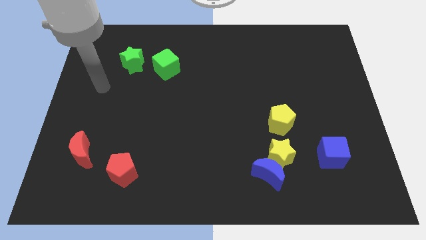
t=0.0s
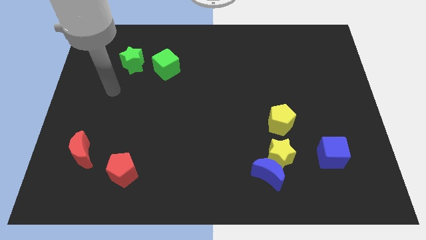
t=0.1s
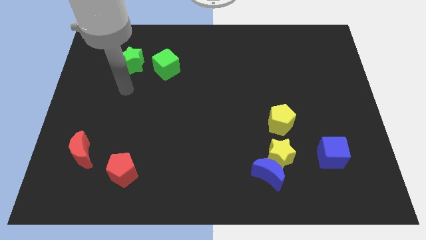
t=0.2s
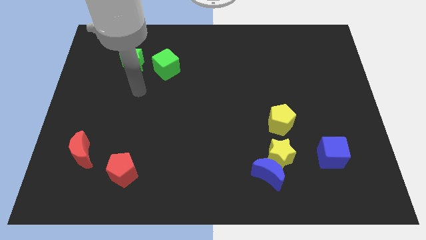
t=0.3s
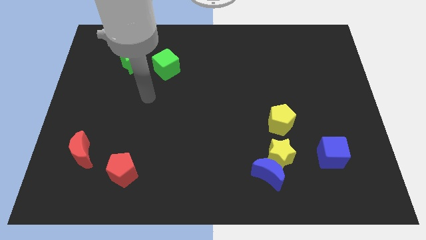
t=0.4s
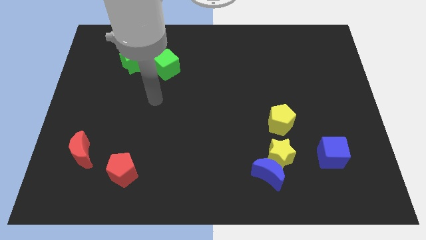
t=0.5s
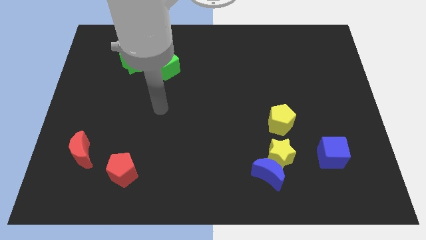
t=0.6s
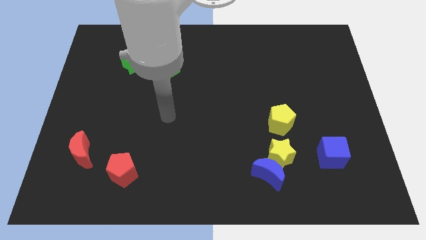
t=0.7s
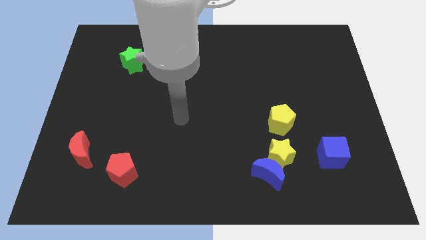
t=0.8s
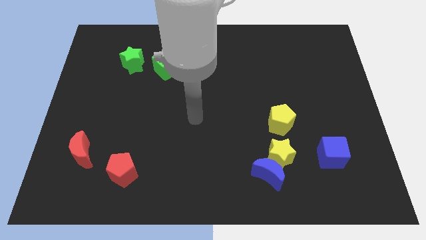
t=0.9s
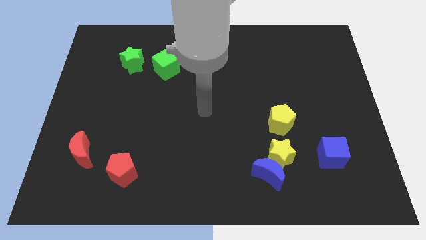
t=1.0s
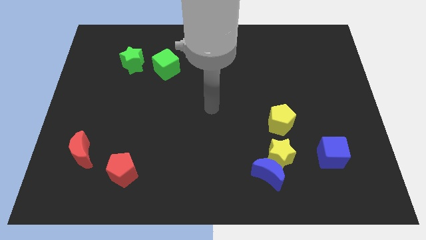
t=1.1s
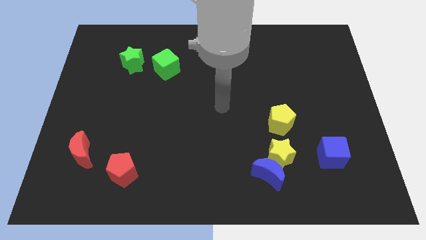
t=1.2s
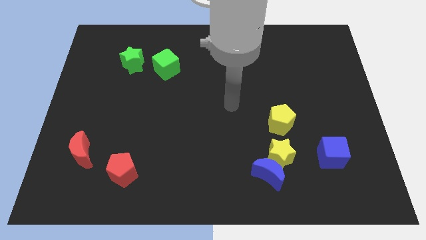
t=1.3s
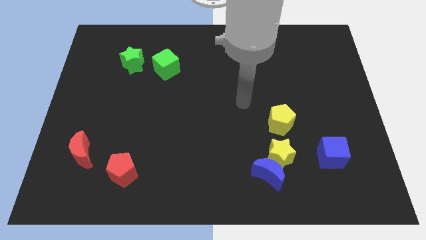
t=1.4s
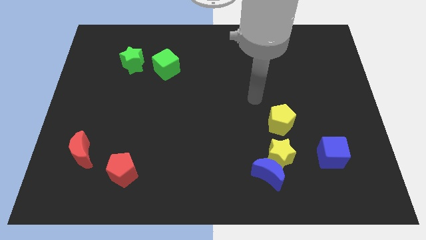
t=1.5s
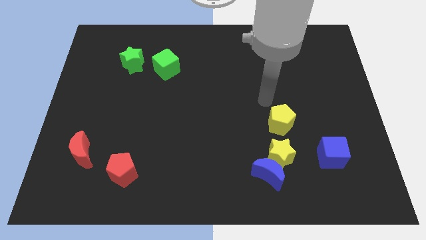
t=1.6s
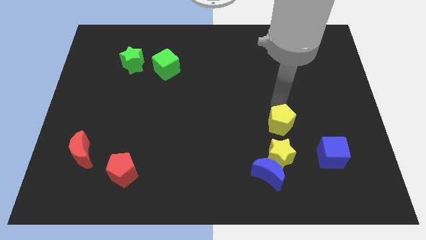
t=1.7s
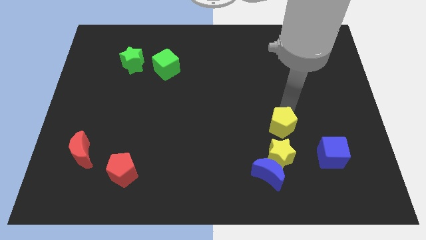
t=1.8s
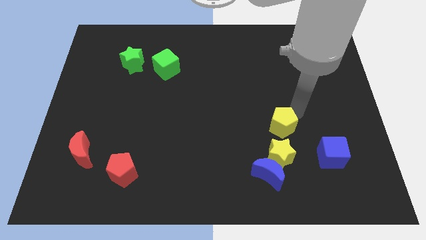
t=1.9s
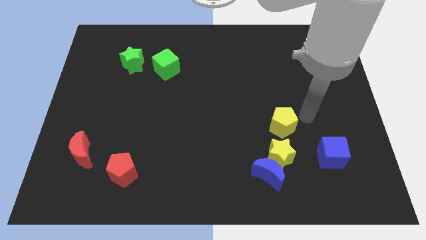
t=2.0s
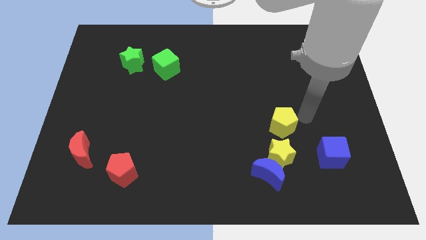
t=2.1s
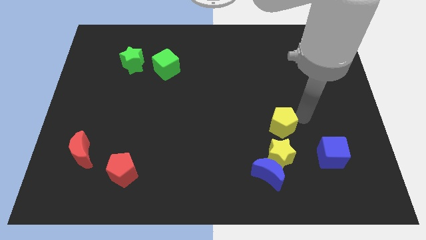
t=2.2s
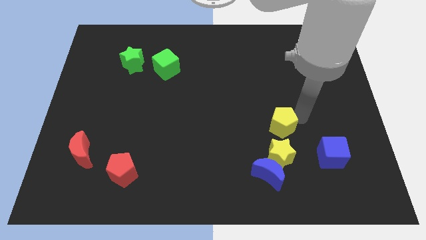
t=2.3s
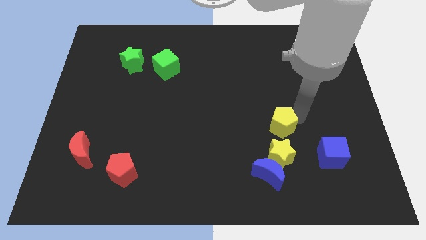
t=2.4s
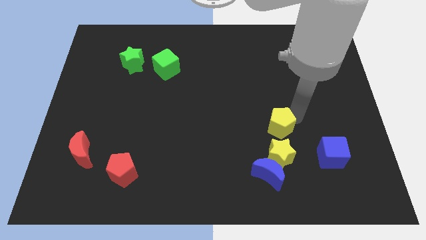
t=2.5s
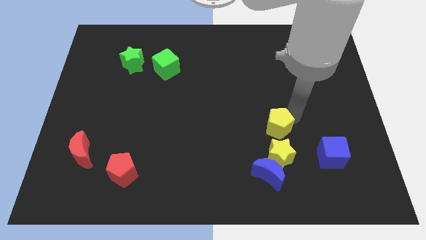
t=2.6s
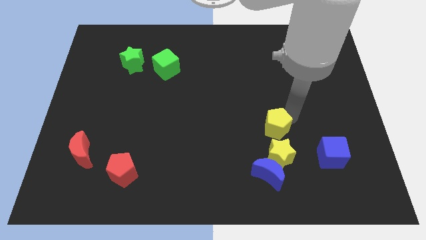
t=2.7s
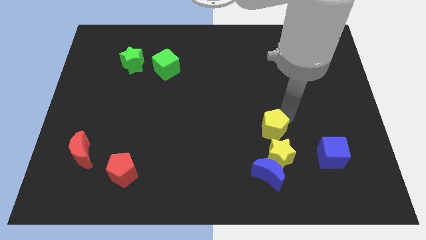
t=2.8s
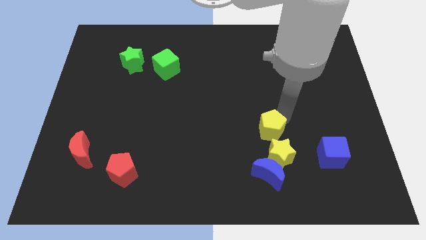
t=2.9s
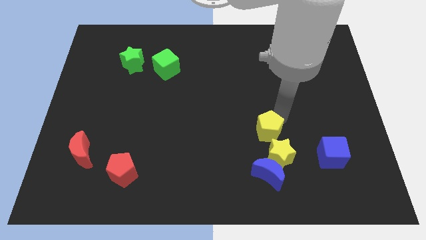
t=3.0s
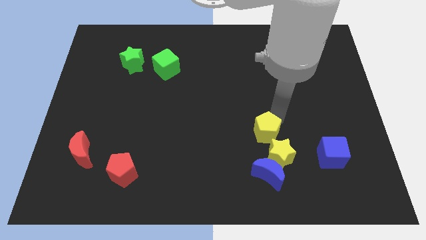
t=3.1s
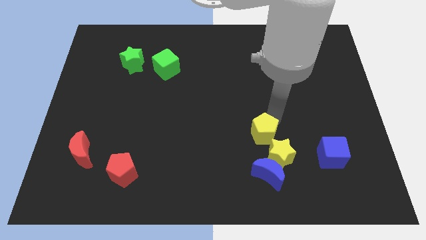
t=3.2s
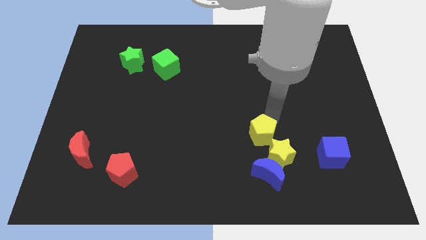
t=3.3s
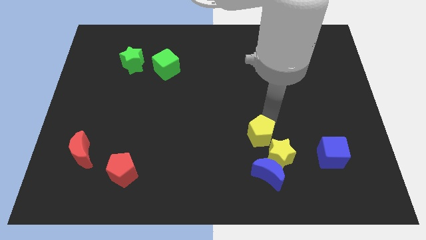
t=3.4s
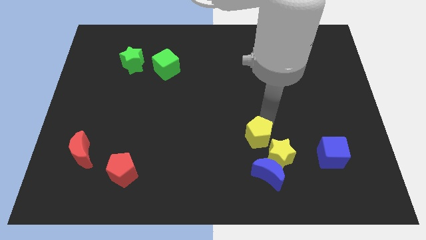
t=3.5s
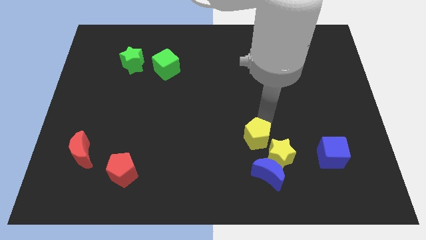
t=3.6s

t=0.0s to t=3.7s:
move the yellow pentagon down and to the left a bit

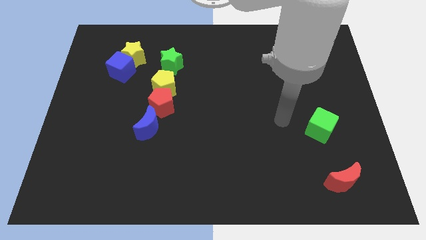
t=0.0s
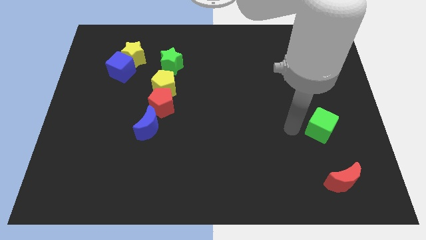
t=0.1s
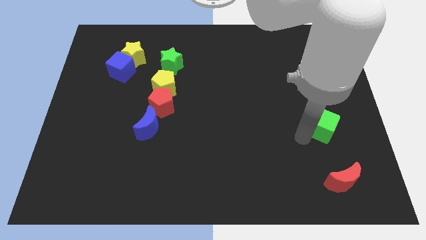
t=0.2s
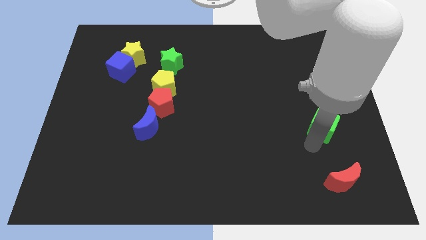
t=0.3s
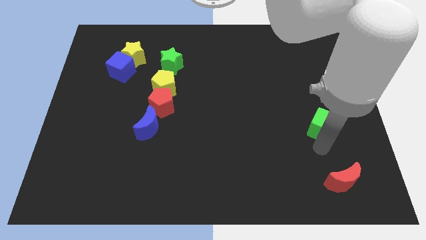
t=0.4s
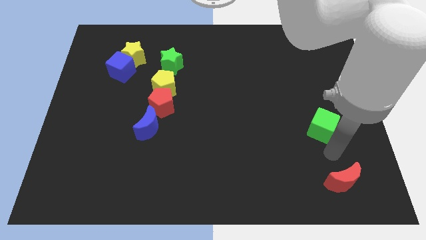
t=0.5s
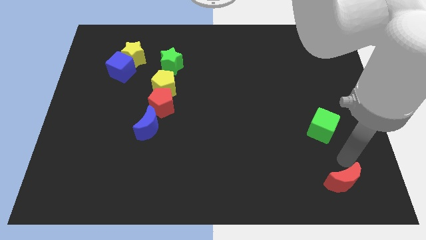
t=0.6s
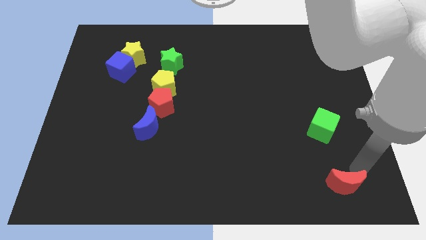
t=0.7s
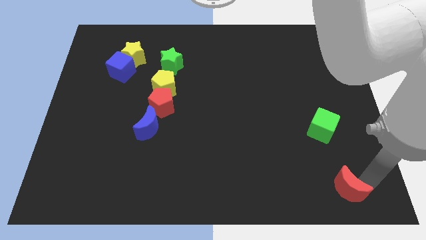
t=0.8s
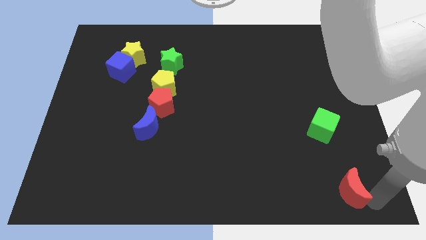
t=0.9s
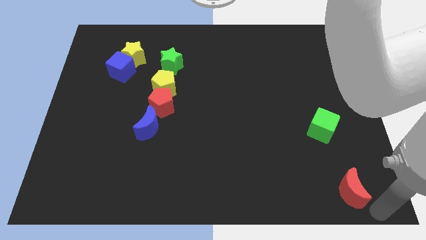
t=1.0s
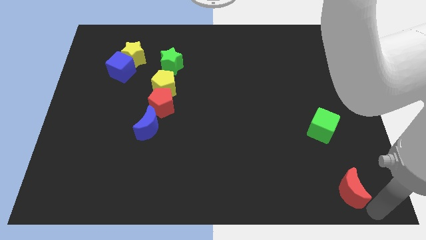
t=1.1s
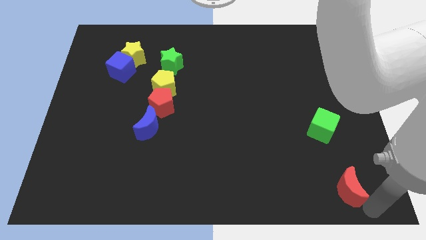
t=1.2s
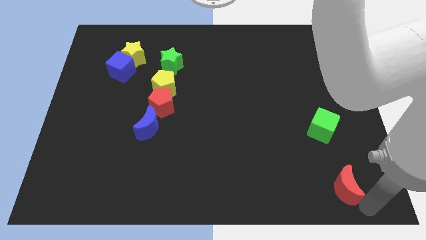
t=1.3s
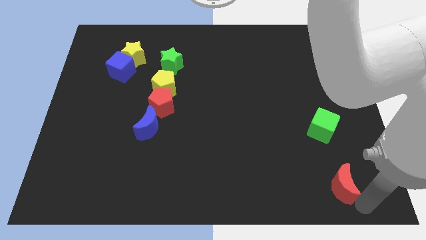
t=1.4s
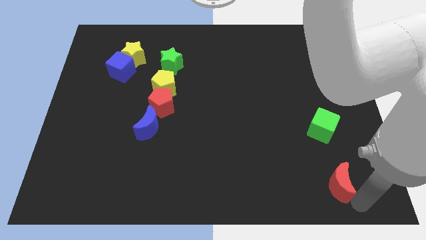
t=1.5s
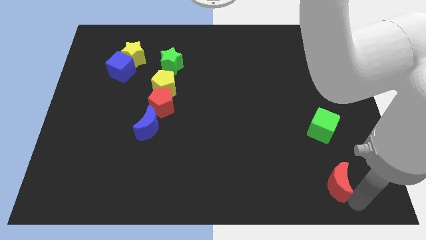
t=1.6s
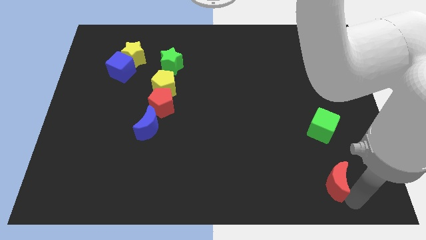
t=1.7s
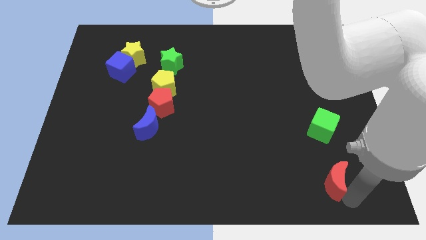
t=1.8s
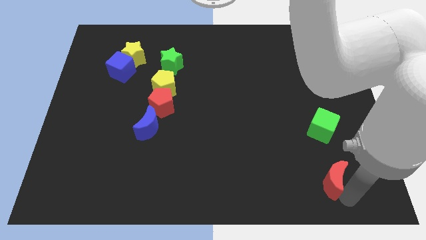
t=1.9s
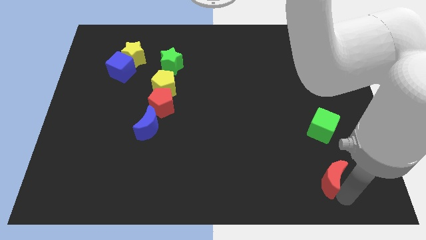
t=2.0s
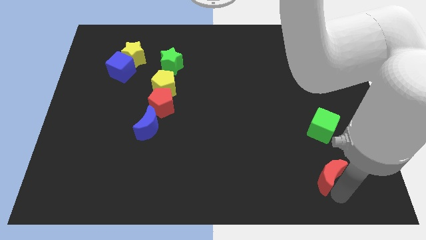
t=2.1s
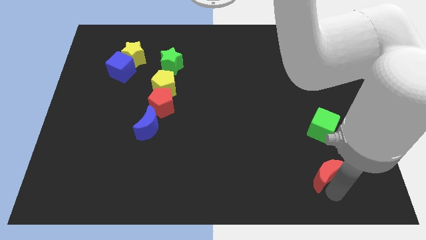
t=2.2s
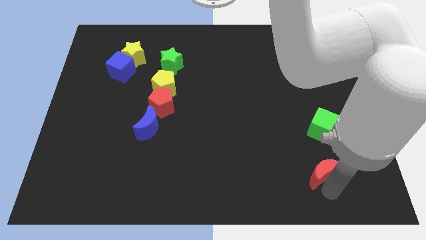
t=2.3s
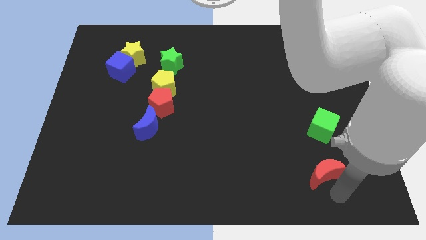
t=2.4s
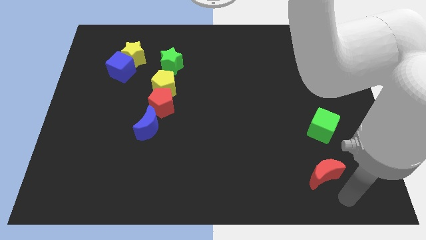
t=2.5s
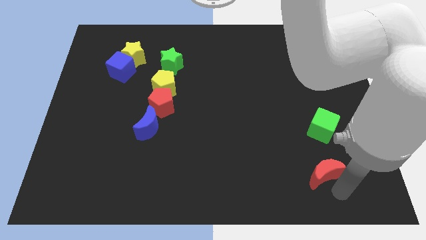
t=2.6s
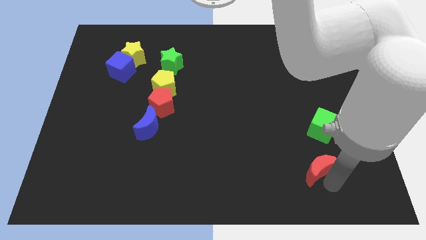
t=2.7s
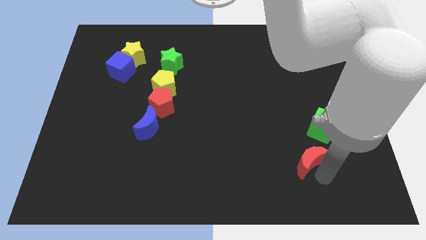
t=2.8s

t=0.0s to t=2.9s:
slightly move the red moon up and to the left

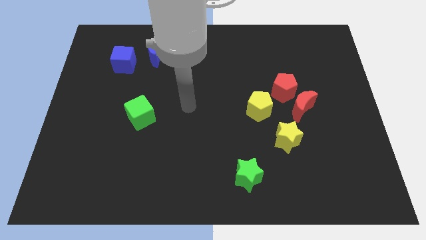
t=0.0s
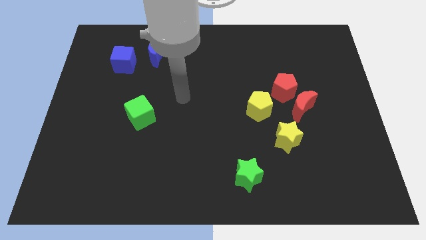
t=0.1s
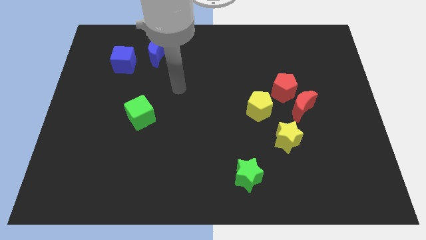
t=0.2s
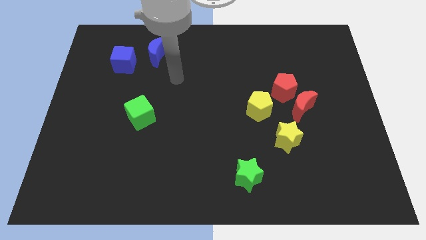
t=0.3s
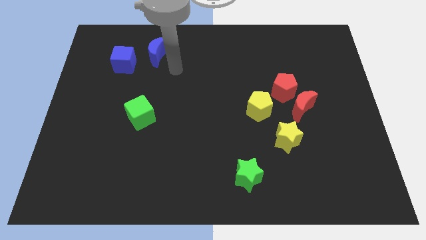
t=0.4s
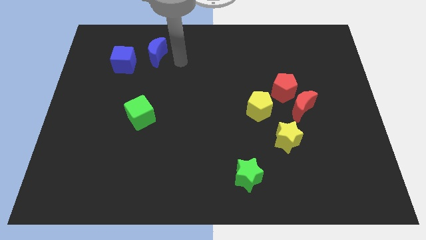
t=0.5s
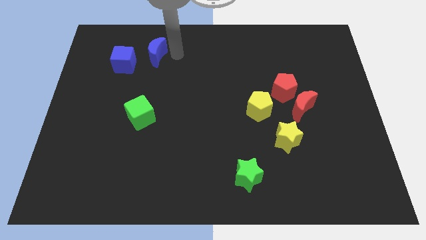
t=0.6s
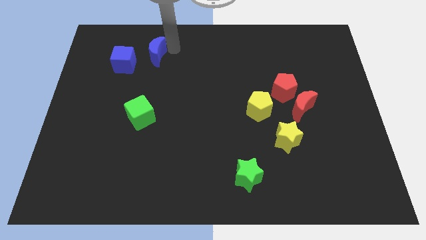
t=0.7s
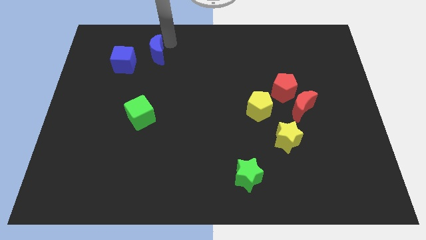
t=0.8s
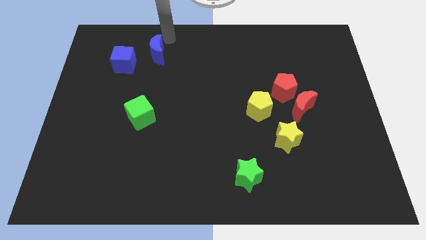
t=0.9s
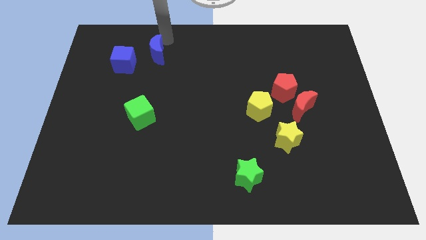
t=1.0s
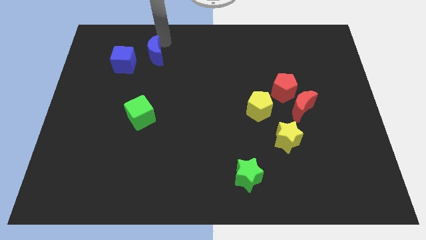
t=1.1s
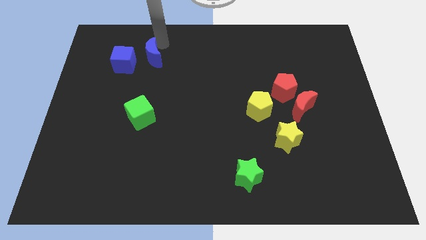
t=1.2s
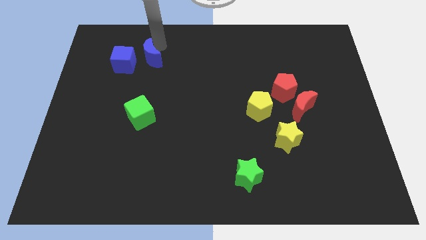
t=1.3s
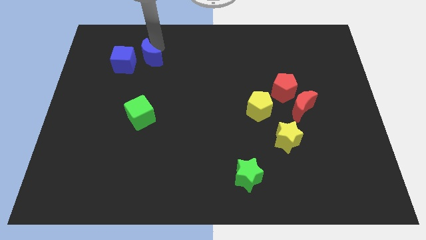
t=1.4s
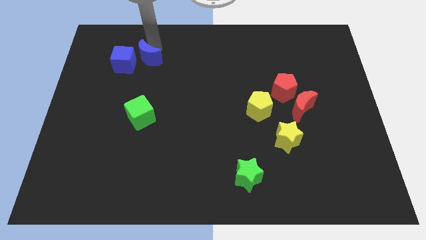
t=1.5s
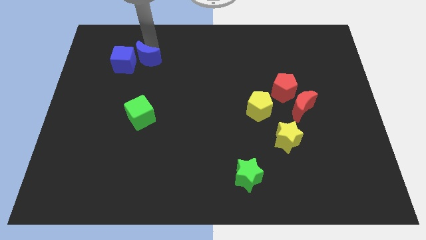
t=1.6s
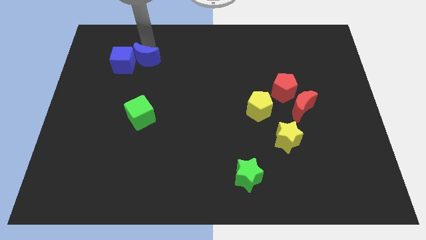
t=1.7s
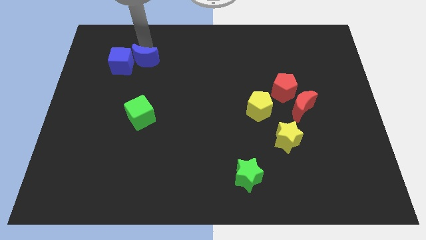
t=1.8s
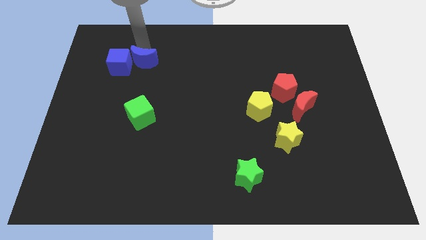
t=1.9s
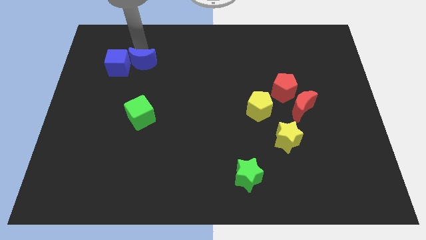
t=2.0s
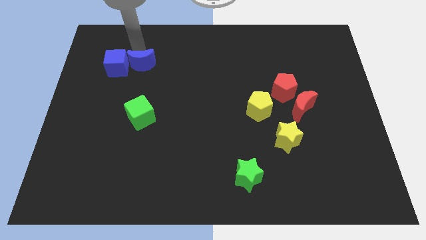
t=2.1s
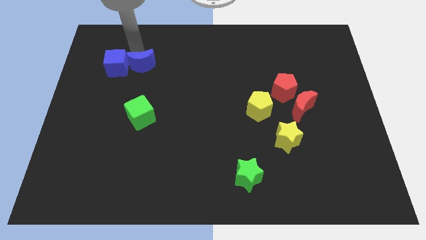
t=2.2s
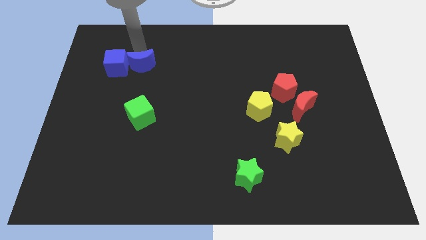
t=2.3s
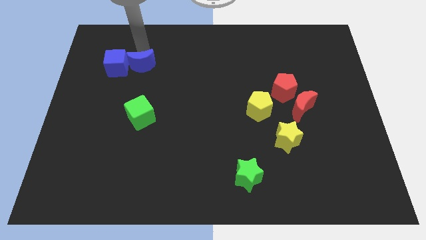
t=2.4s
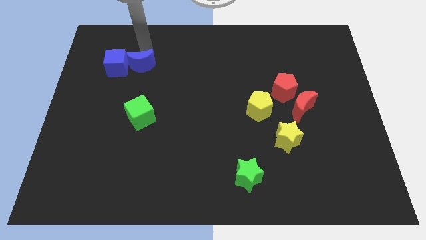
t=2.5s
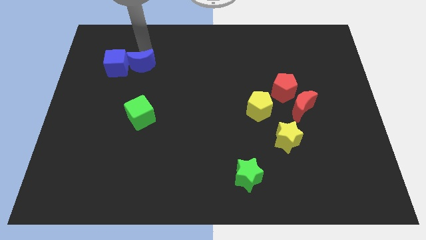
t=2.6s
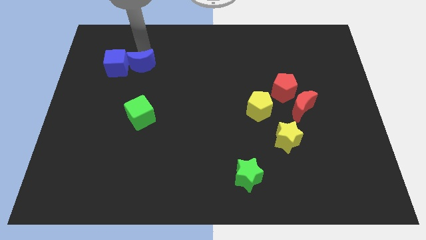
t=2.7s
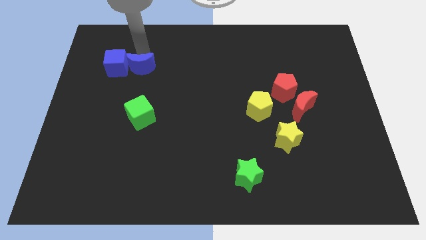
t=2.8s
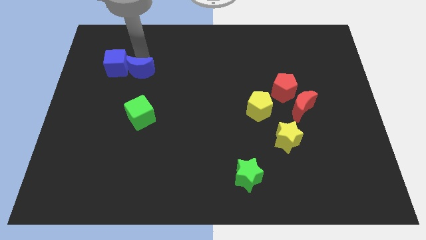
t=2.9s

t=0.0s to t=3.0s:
slightly slide the blue moon diagonally down and left
